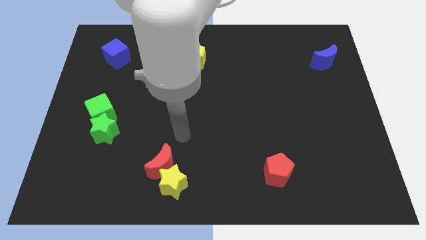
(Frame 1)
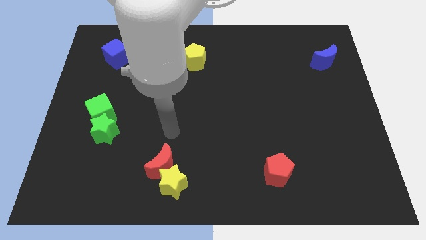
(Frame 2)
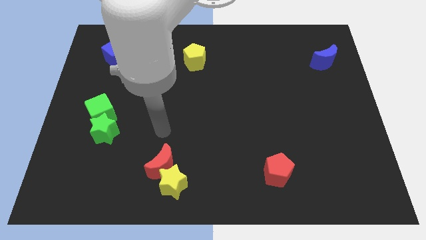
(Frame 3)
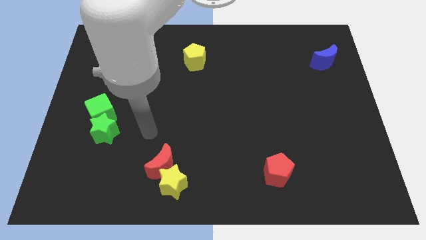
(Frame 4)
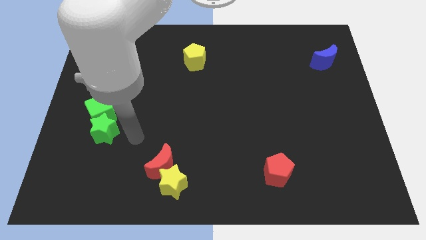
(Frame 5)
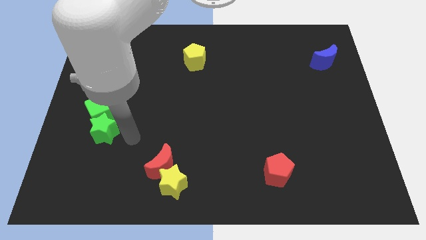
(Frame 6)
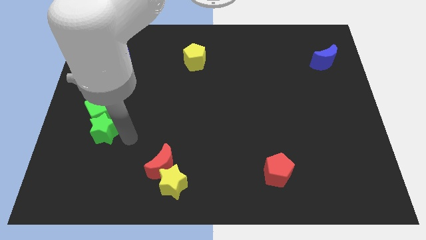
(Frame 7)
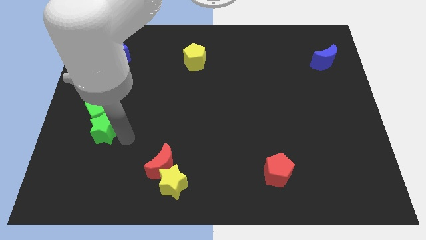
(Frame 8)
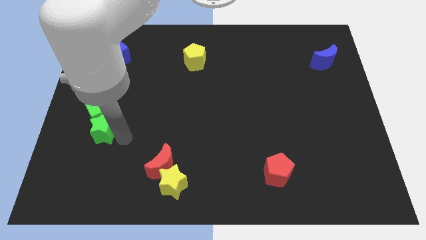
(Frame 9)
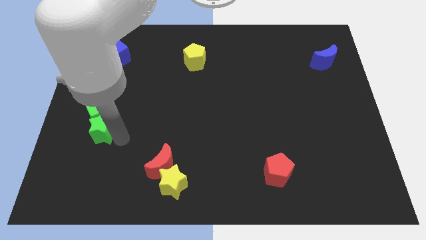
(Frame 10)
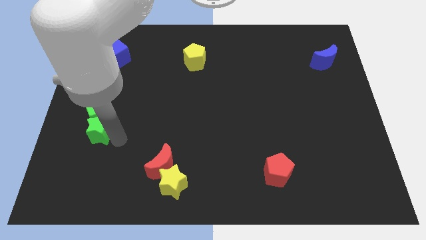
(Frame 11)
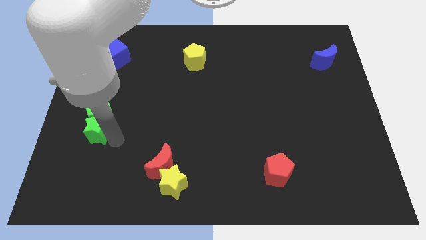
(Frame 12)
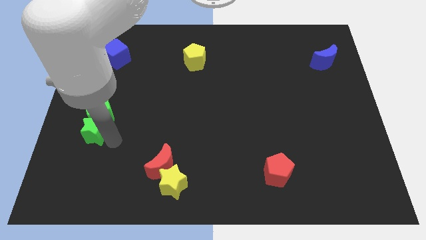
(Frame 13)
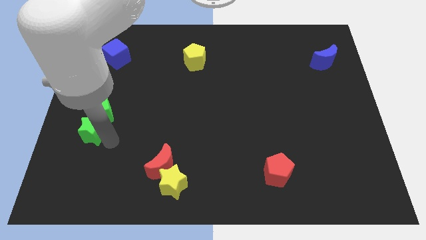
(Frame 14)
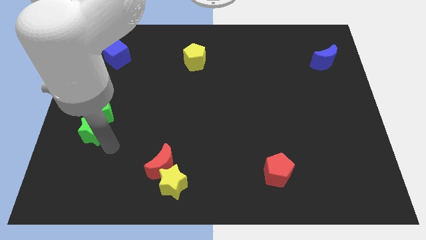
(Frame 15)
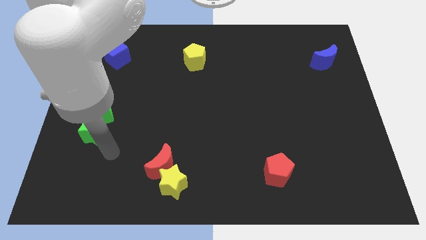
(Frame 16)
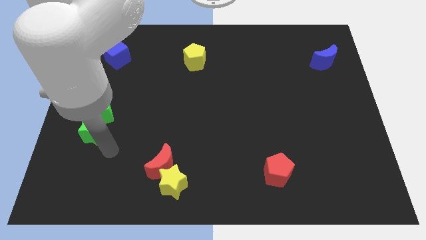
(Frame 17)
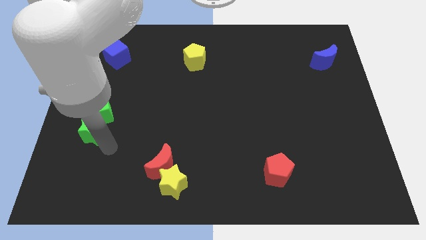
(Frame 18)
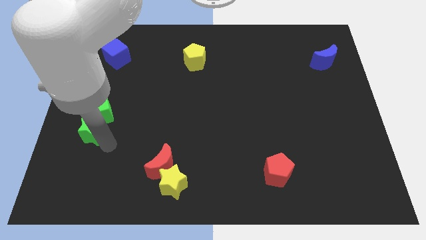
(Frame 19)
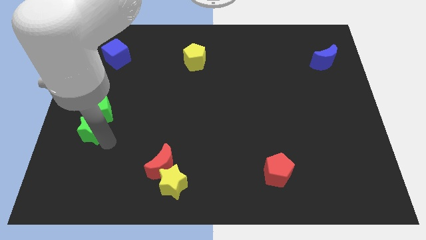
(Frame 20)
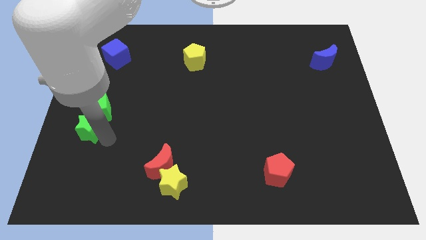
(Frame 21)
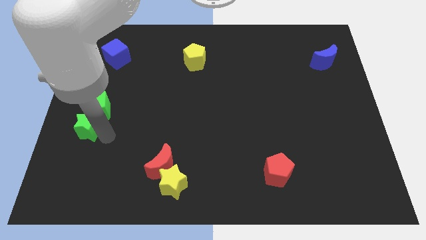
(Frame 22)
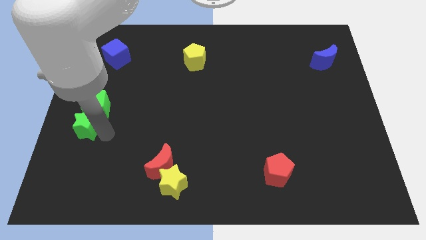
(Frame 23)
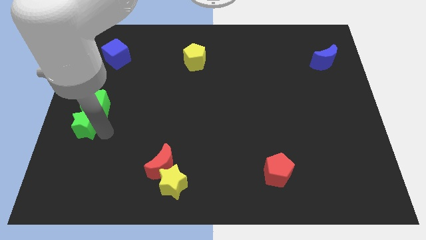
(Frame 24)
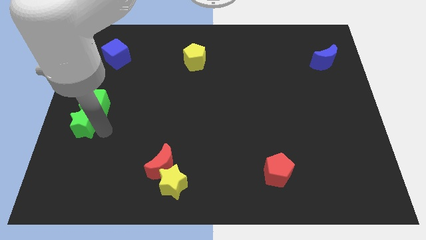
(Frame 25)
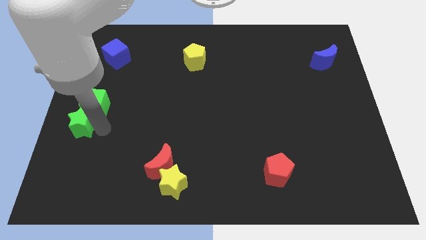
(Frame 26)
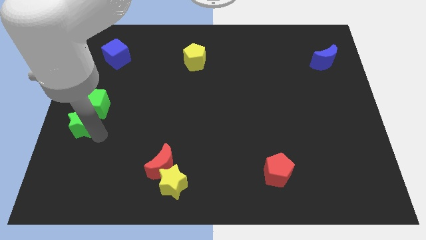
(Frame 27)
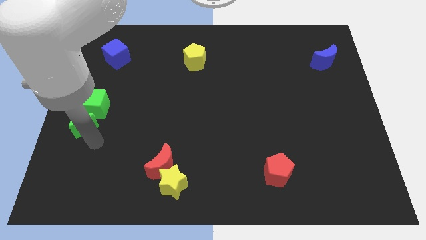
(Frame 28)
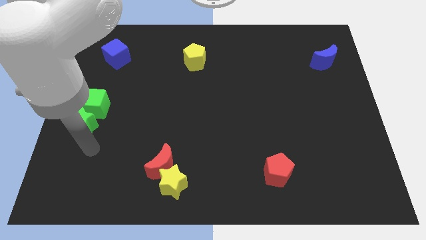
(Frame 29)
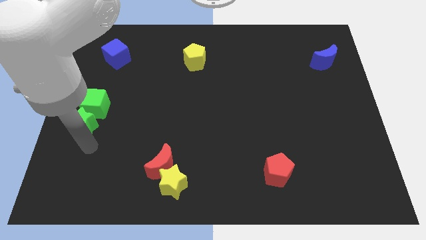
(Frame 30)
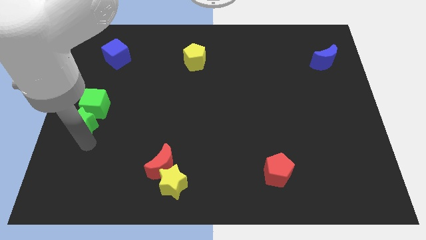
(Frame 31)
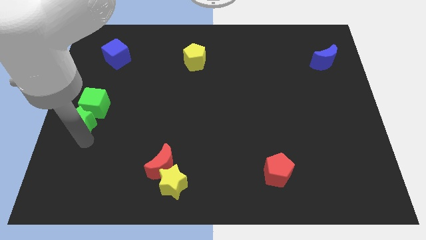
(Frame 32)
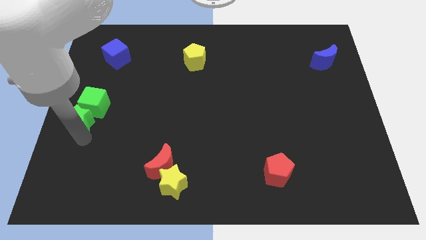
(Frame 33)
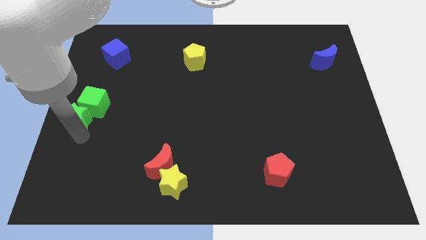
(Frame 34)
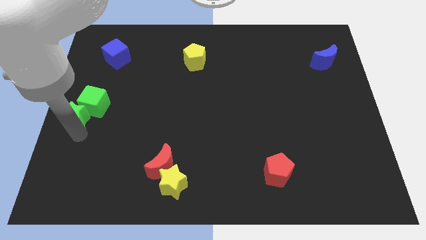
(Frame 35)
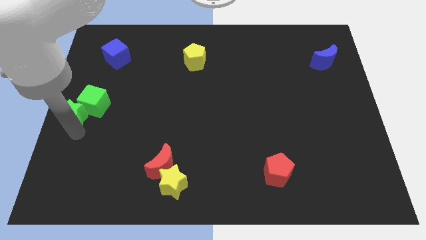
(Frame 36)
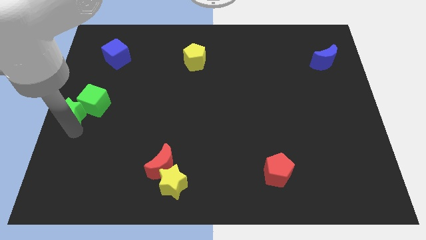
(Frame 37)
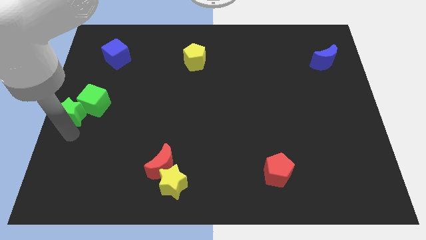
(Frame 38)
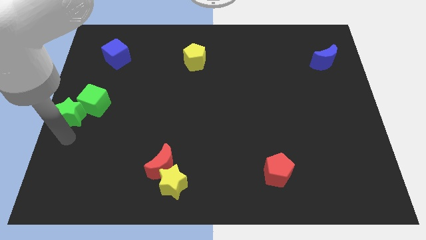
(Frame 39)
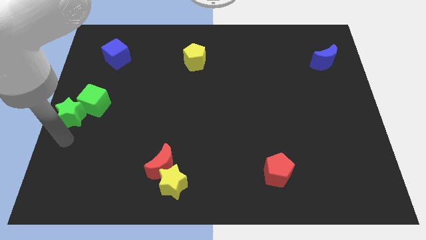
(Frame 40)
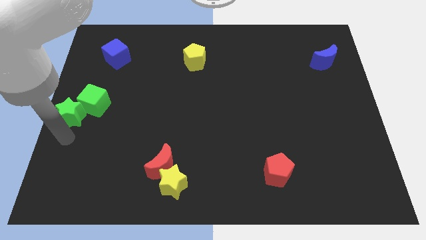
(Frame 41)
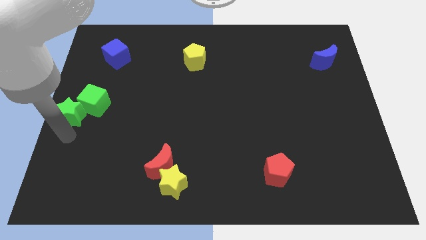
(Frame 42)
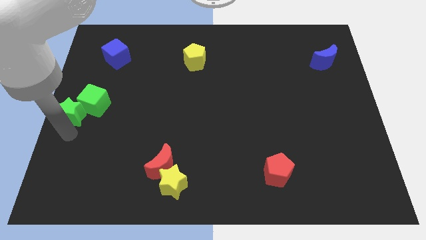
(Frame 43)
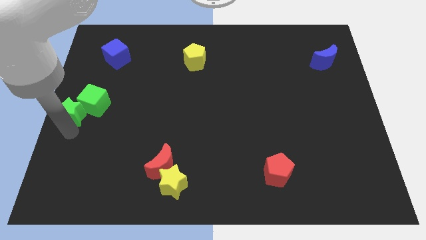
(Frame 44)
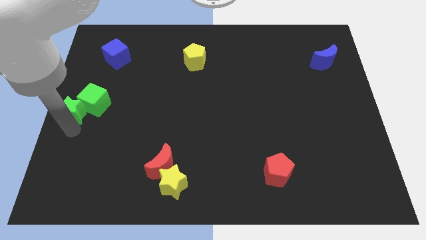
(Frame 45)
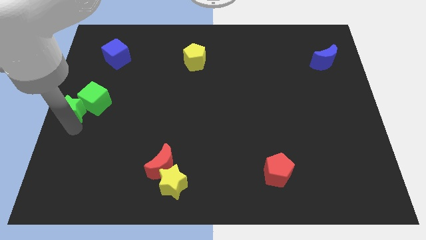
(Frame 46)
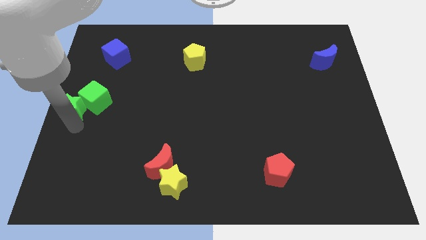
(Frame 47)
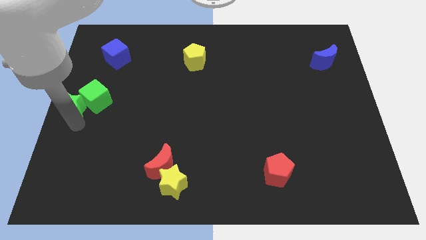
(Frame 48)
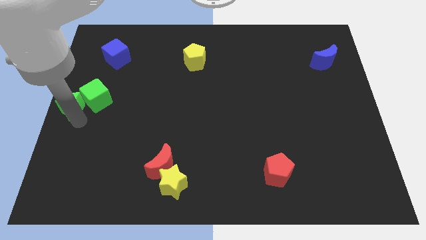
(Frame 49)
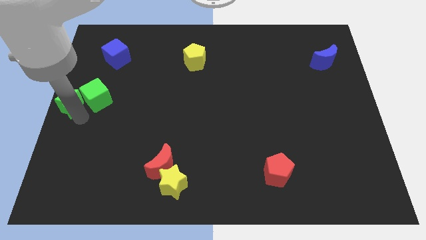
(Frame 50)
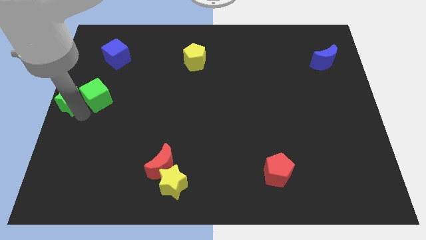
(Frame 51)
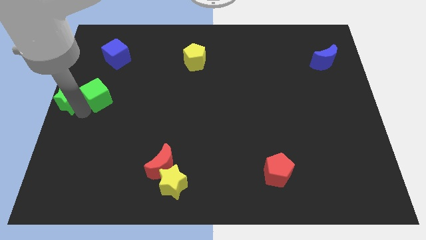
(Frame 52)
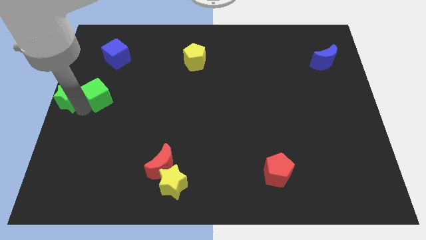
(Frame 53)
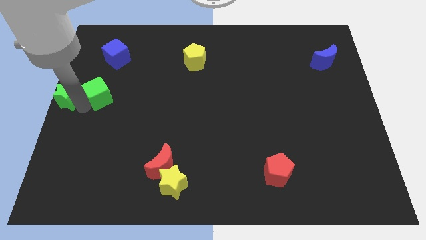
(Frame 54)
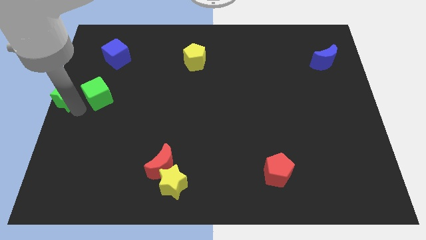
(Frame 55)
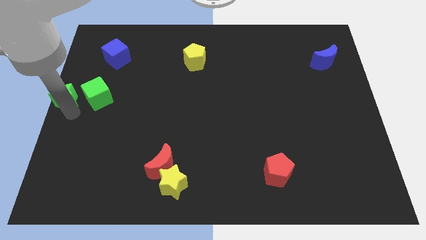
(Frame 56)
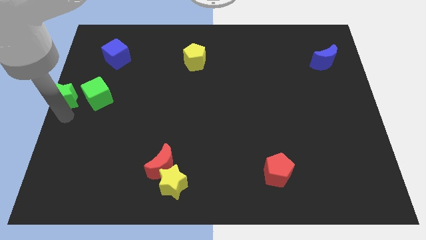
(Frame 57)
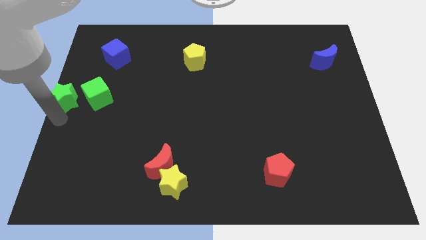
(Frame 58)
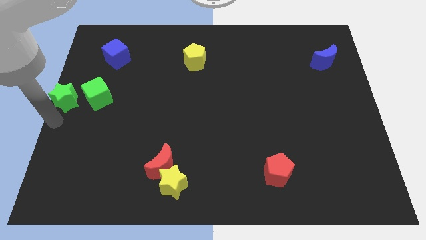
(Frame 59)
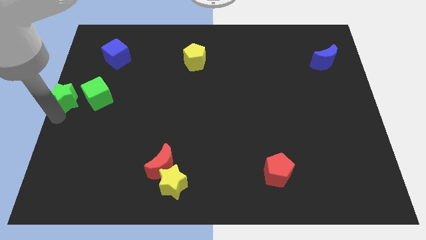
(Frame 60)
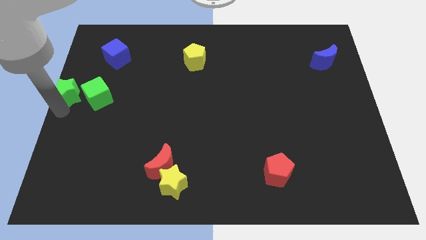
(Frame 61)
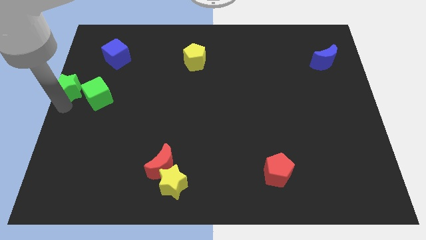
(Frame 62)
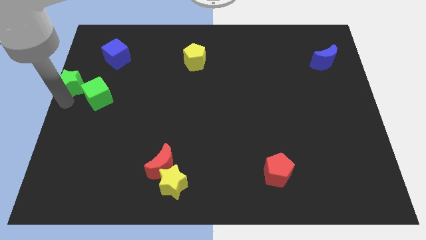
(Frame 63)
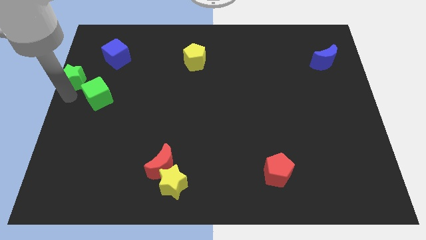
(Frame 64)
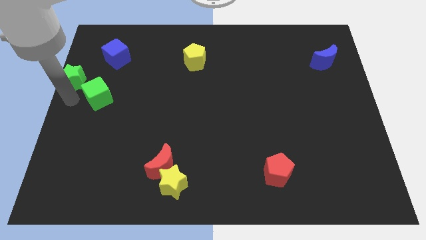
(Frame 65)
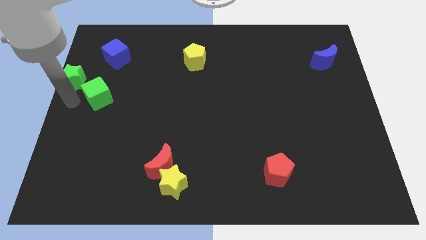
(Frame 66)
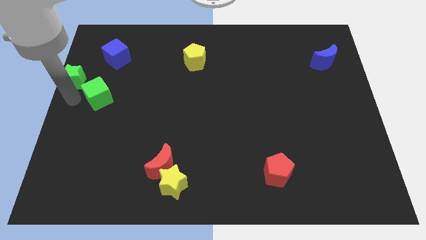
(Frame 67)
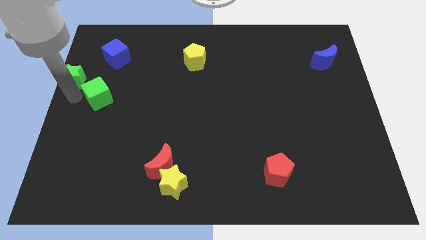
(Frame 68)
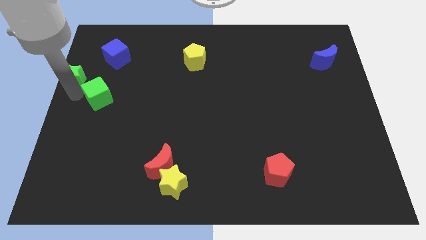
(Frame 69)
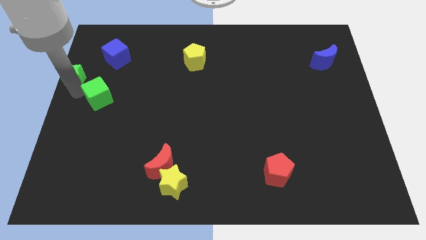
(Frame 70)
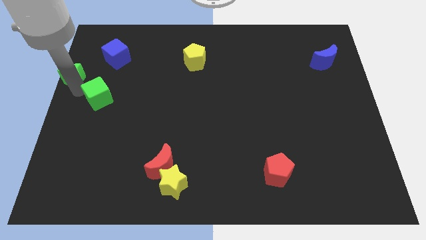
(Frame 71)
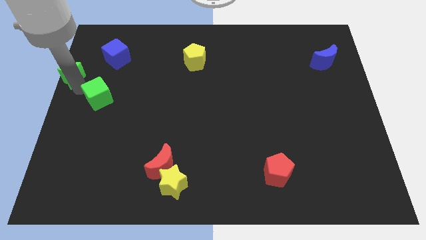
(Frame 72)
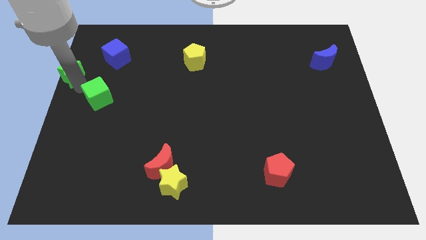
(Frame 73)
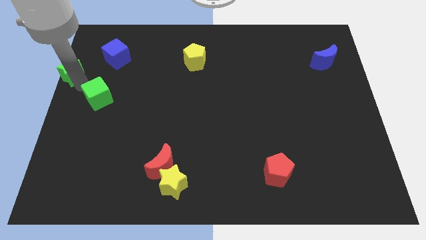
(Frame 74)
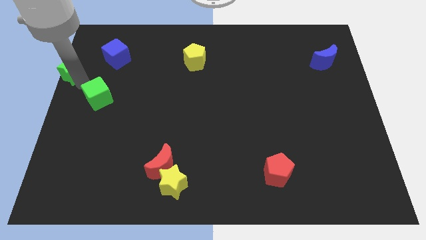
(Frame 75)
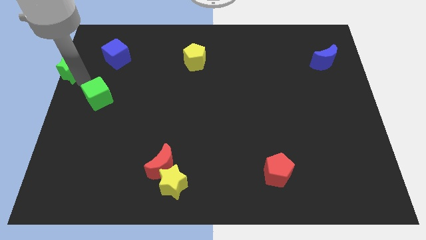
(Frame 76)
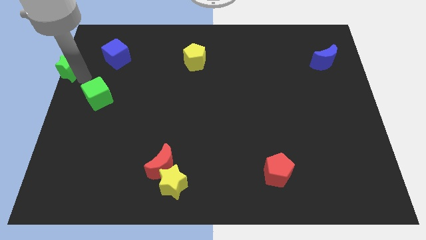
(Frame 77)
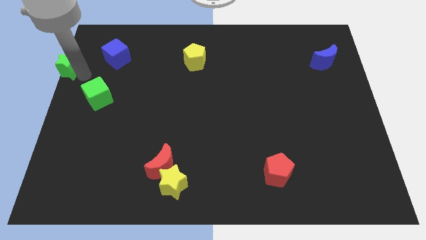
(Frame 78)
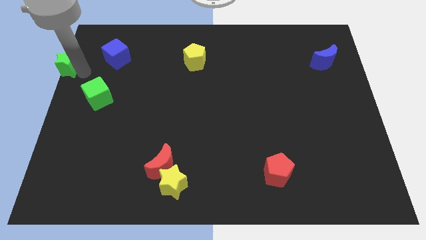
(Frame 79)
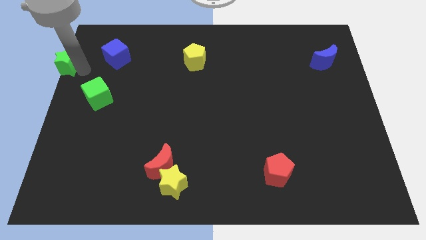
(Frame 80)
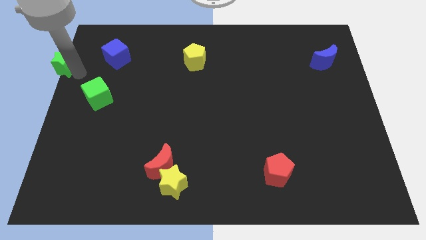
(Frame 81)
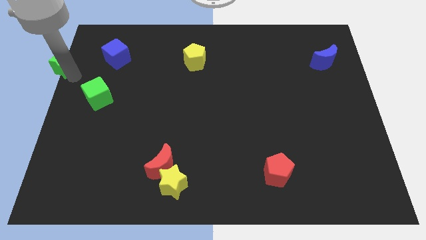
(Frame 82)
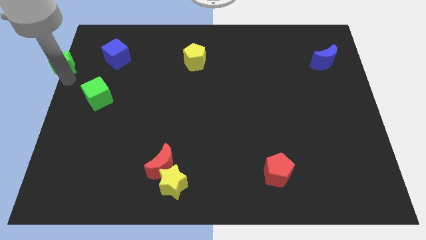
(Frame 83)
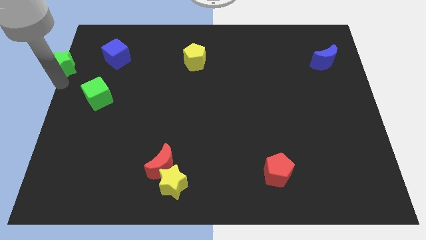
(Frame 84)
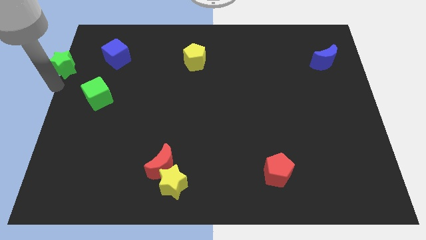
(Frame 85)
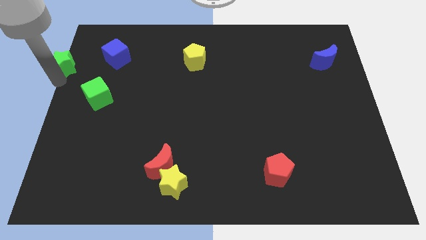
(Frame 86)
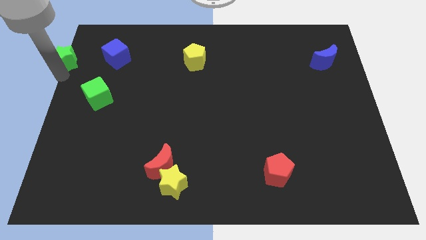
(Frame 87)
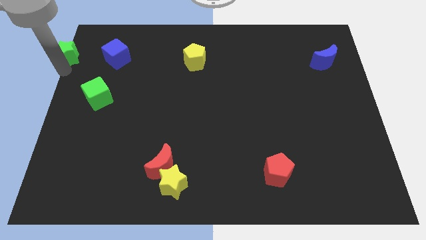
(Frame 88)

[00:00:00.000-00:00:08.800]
slide the green star to the top left corner
